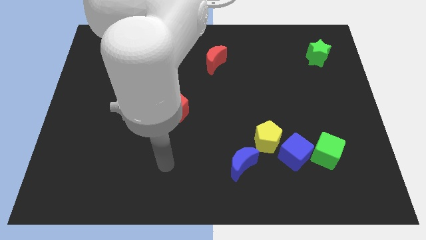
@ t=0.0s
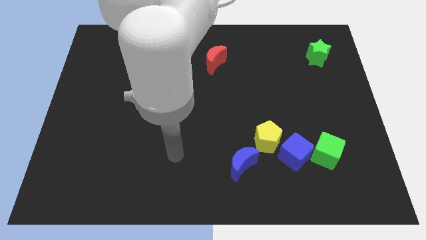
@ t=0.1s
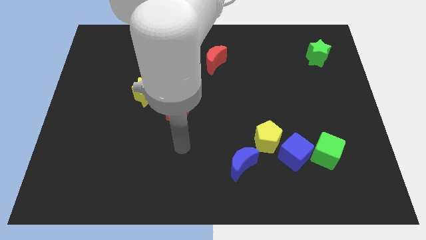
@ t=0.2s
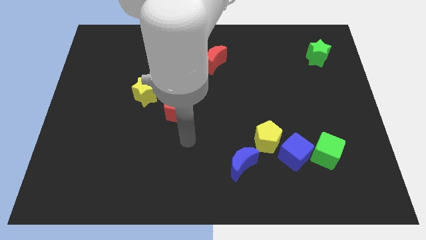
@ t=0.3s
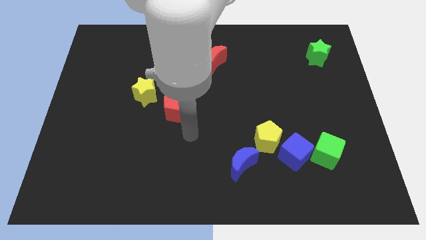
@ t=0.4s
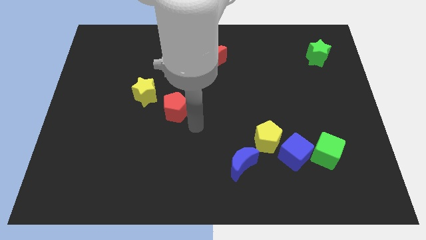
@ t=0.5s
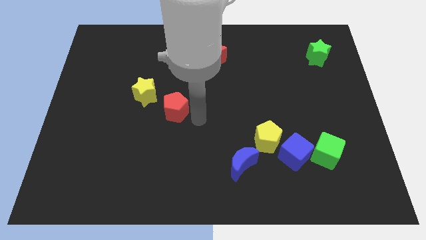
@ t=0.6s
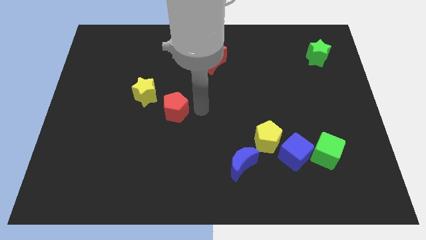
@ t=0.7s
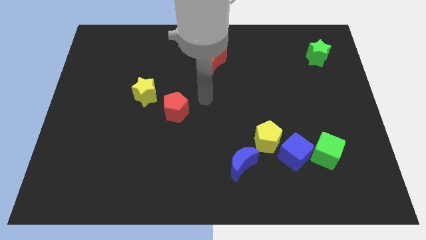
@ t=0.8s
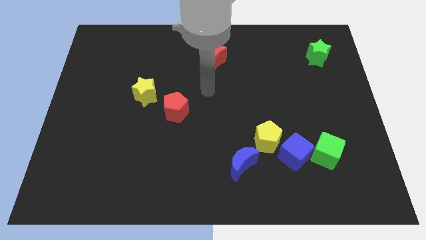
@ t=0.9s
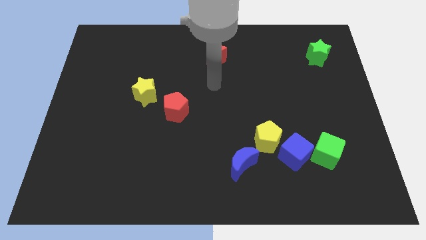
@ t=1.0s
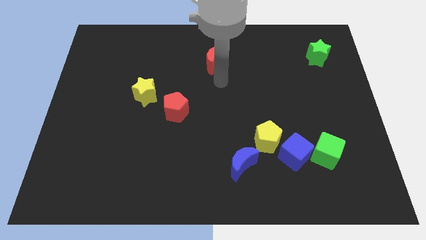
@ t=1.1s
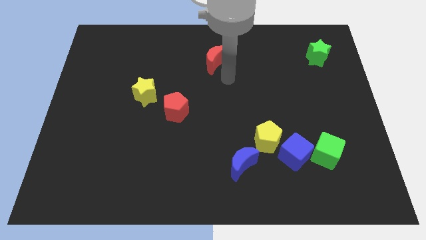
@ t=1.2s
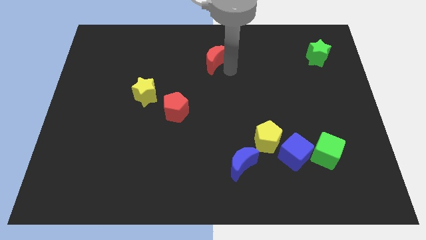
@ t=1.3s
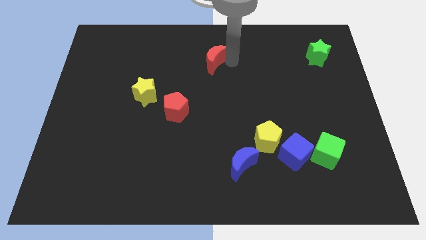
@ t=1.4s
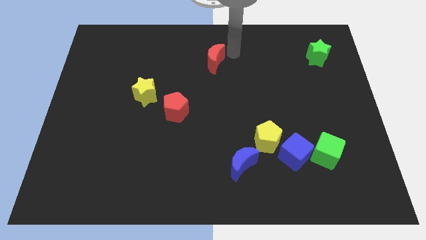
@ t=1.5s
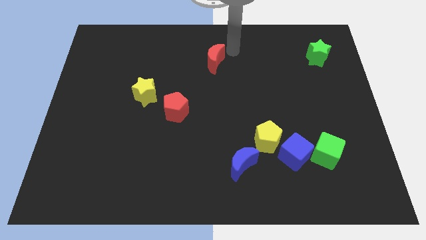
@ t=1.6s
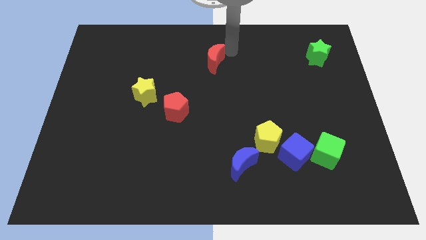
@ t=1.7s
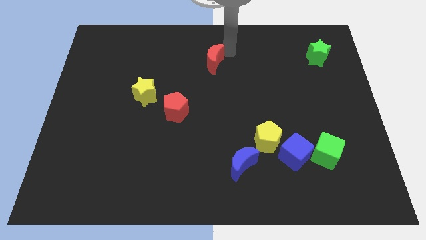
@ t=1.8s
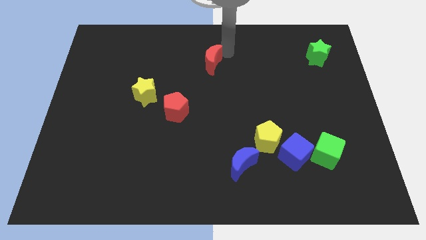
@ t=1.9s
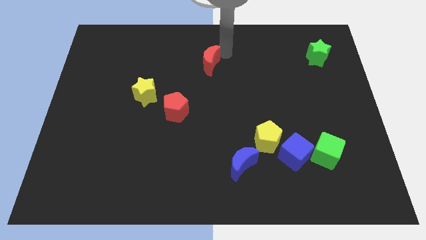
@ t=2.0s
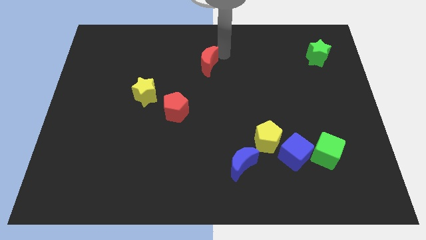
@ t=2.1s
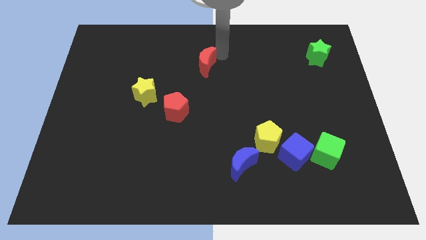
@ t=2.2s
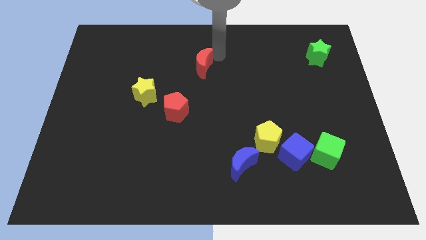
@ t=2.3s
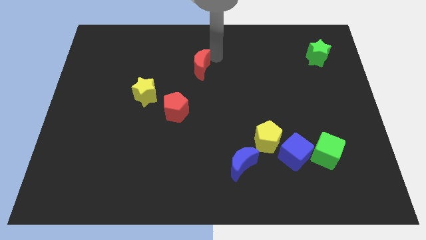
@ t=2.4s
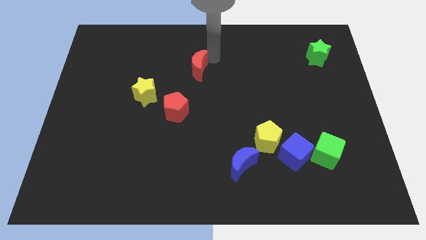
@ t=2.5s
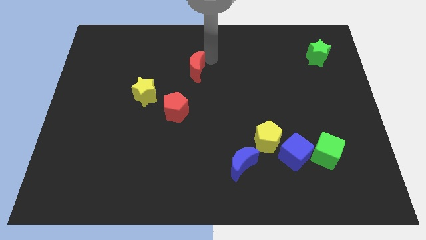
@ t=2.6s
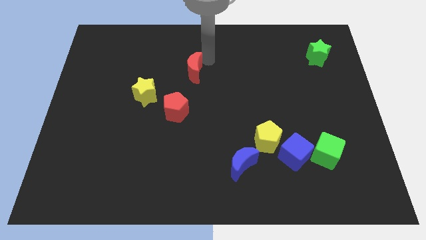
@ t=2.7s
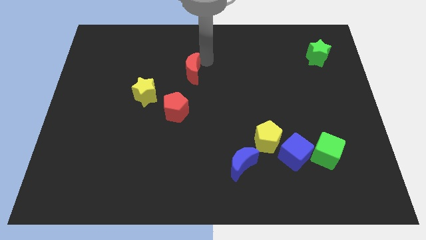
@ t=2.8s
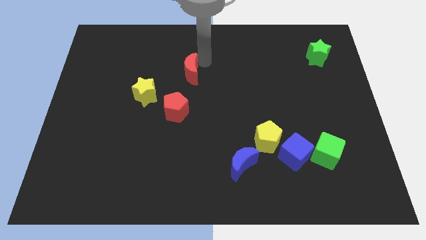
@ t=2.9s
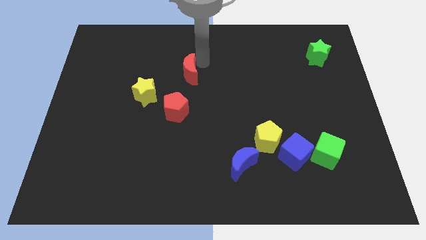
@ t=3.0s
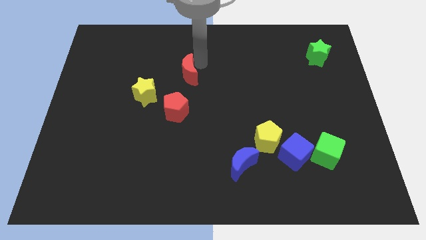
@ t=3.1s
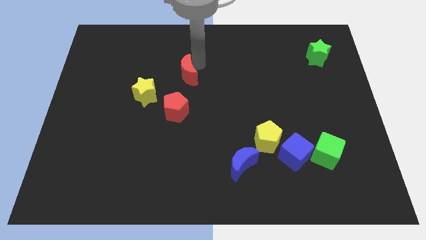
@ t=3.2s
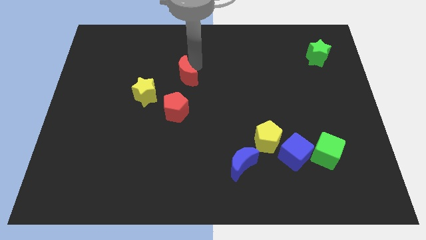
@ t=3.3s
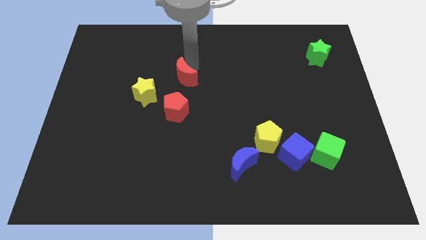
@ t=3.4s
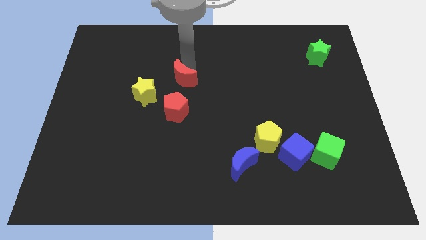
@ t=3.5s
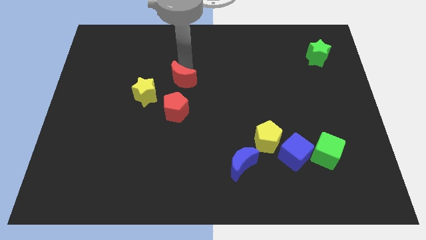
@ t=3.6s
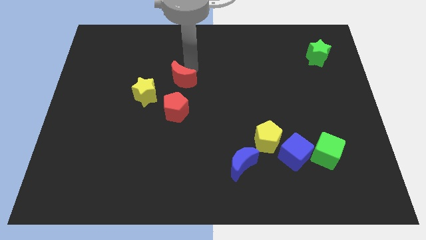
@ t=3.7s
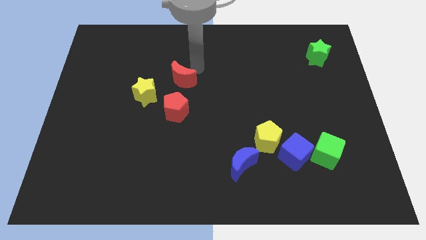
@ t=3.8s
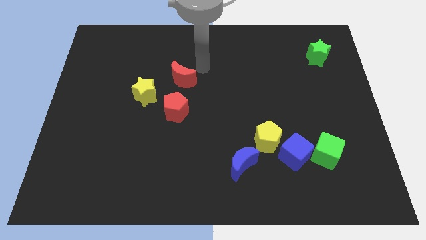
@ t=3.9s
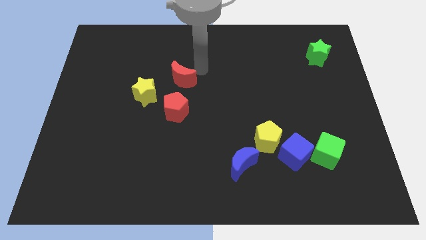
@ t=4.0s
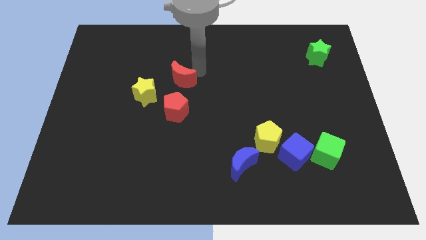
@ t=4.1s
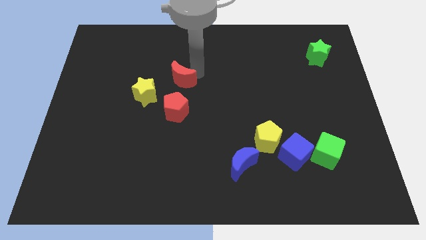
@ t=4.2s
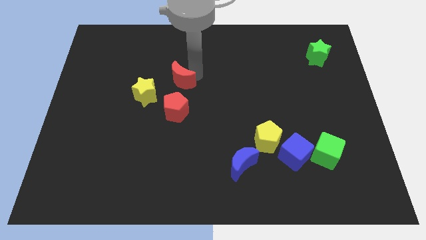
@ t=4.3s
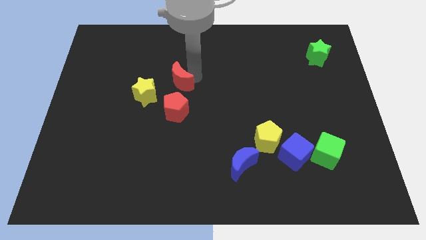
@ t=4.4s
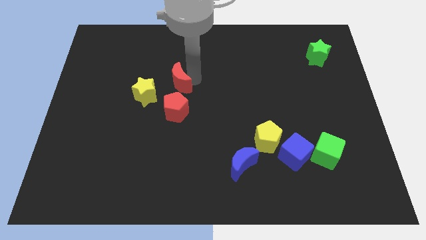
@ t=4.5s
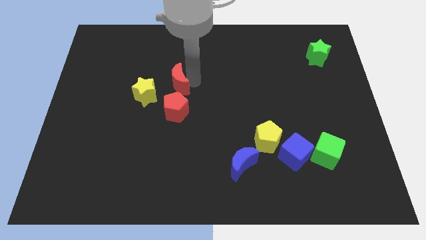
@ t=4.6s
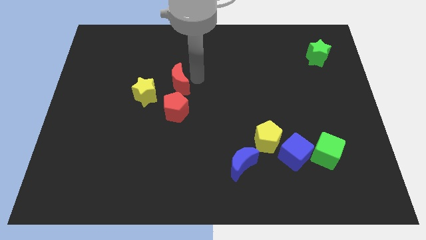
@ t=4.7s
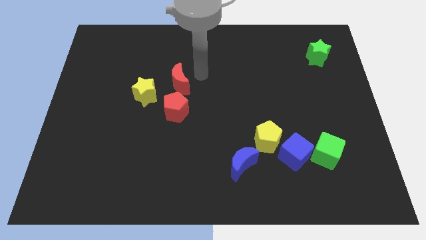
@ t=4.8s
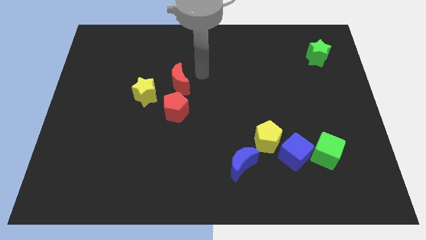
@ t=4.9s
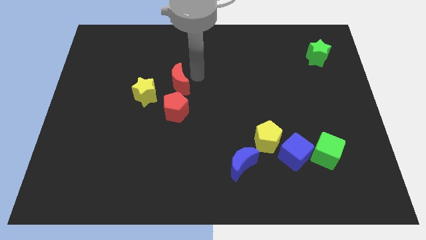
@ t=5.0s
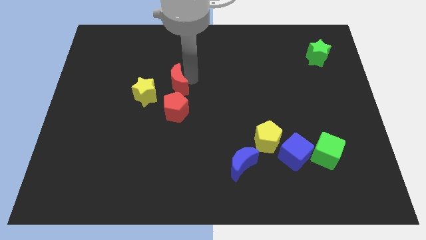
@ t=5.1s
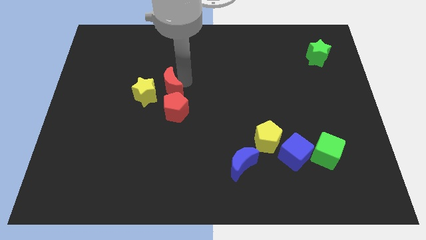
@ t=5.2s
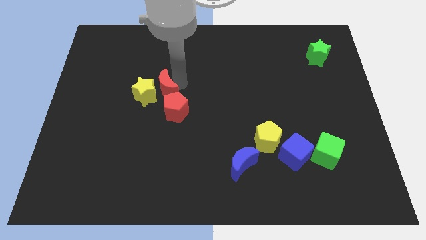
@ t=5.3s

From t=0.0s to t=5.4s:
slide the red moon towards the yellow star

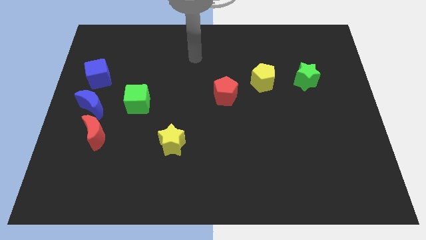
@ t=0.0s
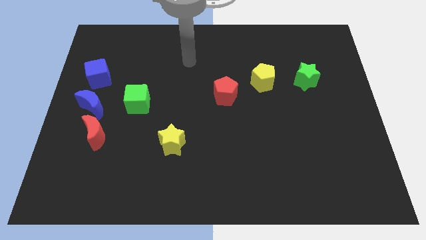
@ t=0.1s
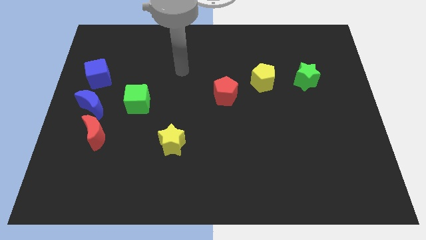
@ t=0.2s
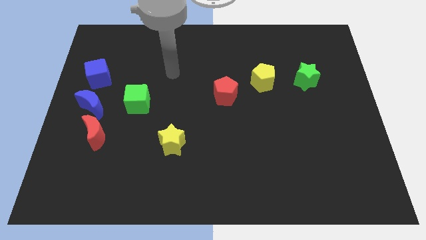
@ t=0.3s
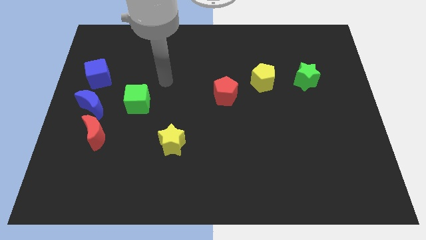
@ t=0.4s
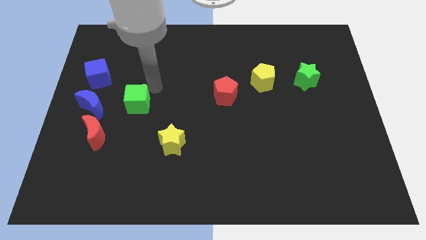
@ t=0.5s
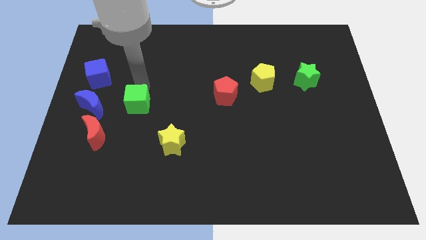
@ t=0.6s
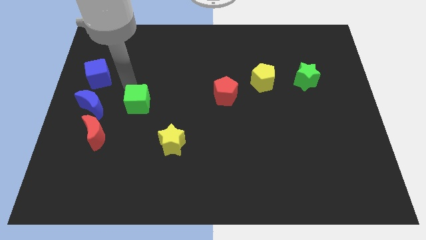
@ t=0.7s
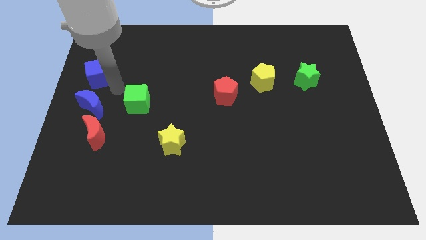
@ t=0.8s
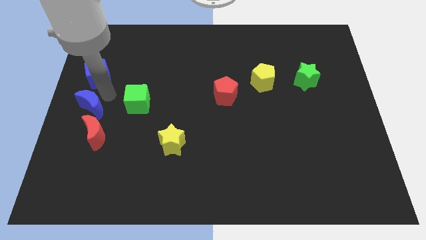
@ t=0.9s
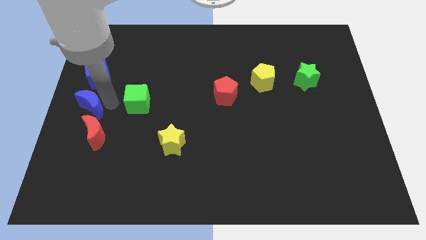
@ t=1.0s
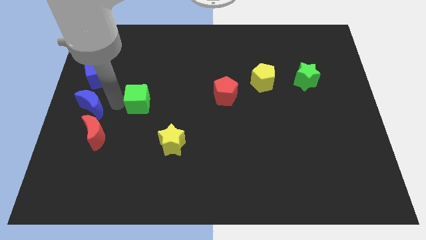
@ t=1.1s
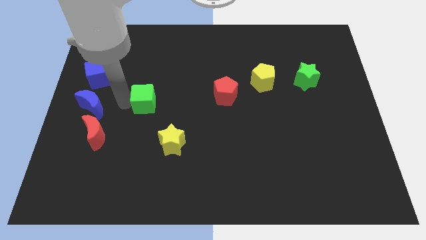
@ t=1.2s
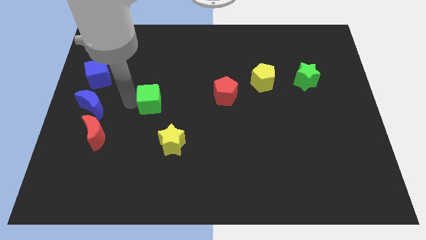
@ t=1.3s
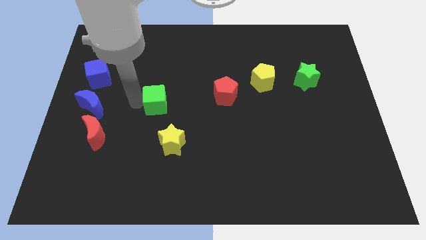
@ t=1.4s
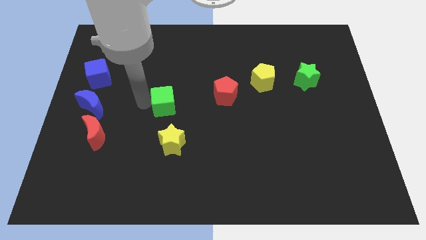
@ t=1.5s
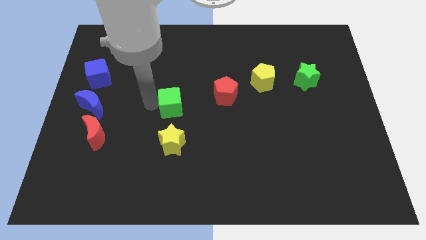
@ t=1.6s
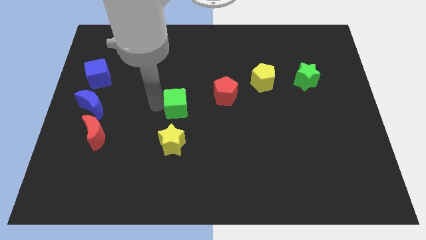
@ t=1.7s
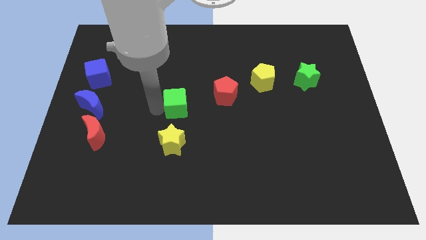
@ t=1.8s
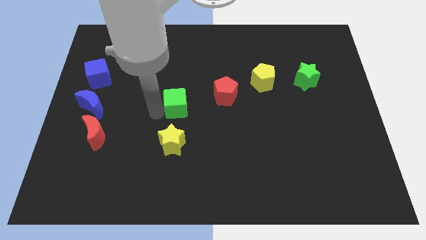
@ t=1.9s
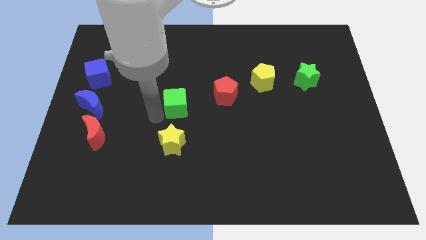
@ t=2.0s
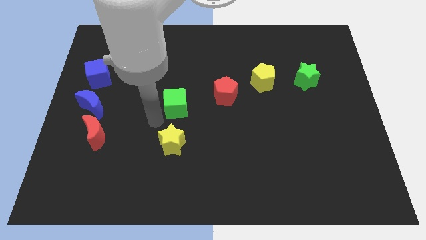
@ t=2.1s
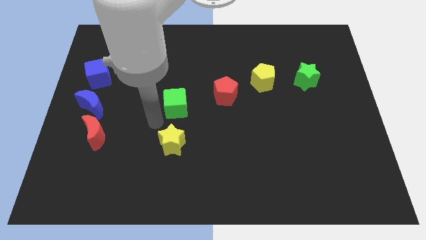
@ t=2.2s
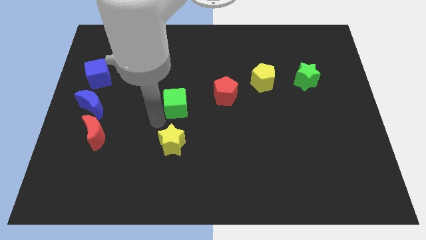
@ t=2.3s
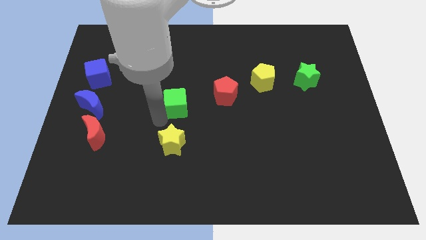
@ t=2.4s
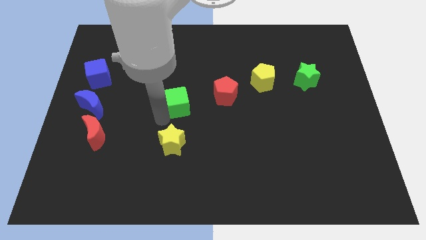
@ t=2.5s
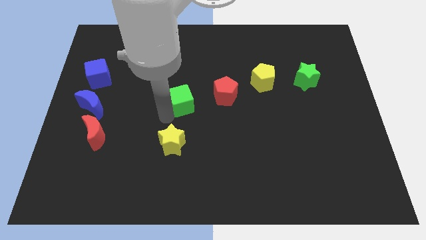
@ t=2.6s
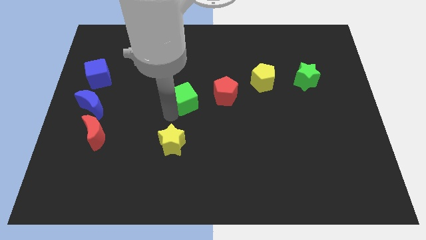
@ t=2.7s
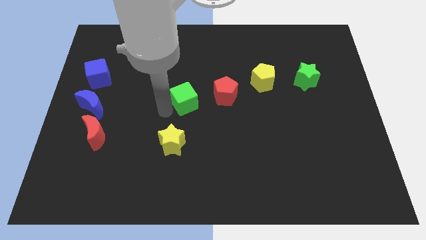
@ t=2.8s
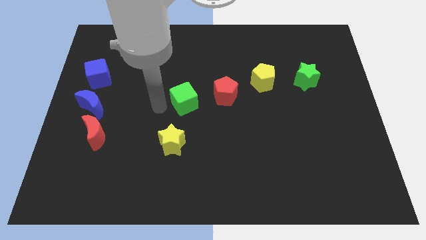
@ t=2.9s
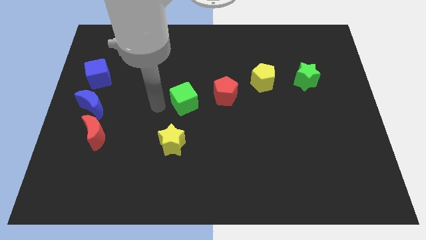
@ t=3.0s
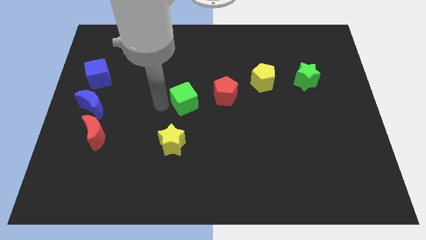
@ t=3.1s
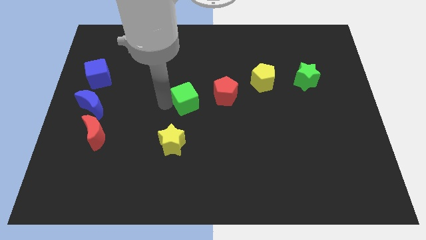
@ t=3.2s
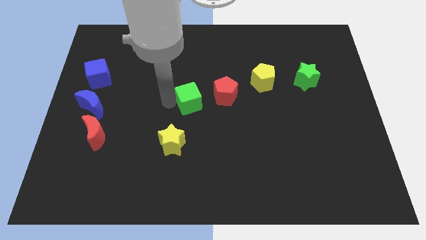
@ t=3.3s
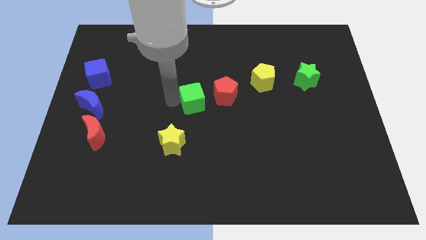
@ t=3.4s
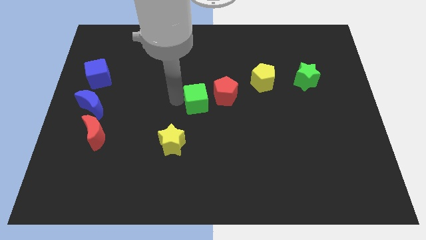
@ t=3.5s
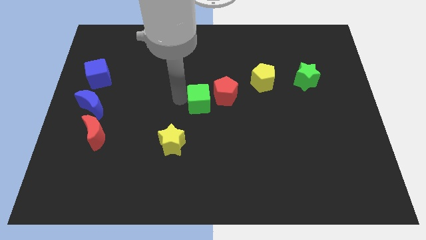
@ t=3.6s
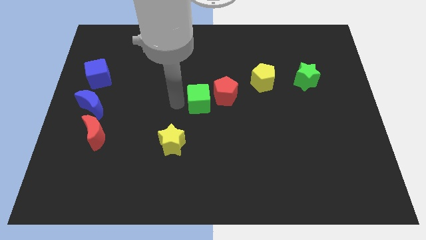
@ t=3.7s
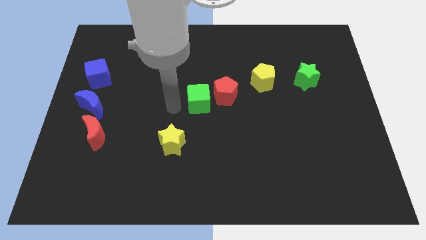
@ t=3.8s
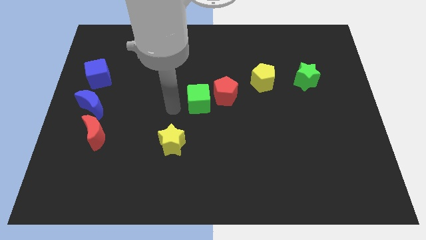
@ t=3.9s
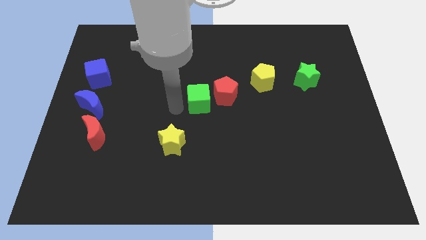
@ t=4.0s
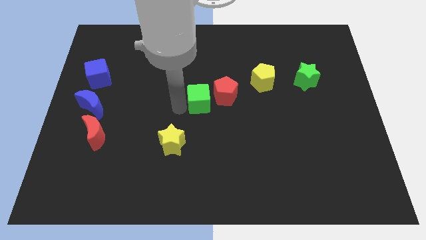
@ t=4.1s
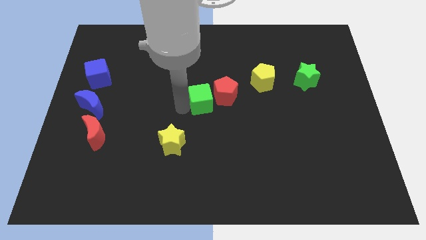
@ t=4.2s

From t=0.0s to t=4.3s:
push the green cube close to the red pentagon
